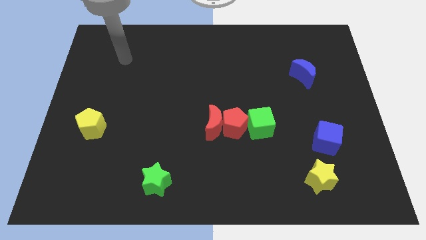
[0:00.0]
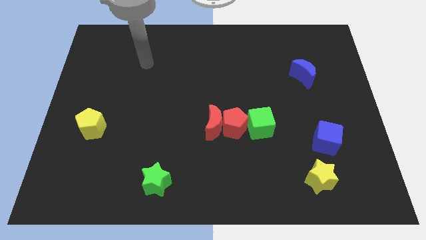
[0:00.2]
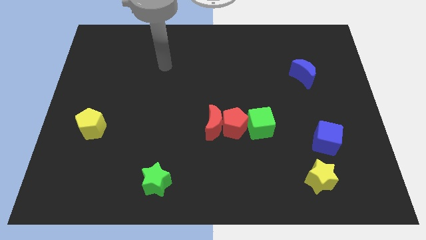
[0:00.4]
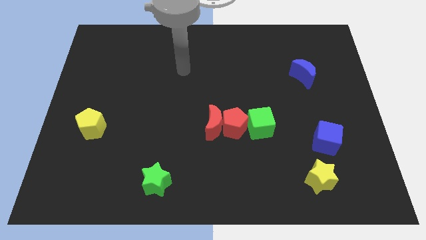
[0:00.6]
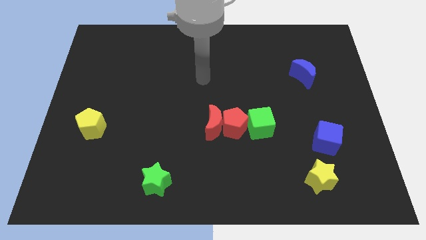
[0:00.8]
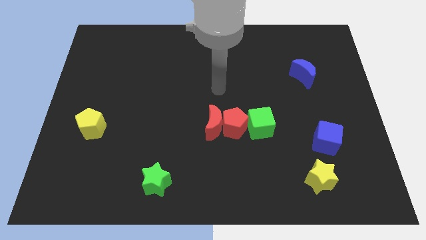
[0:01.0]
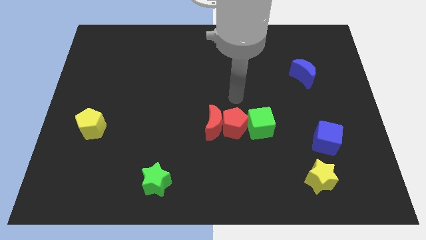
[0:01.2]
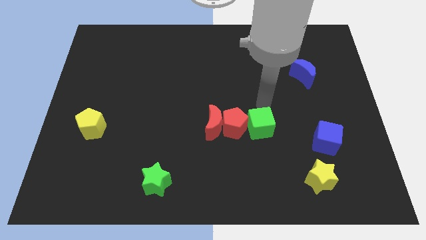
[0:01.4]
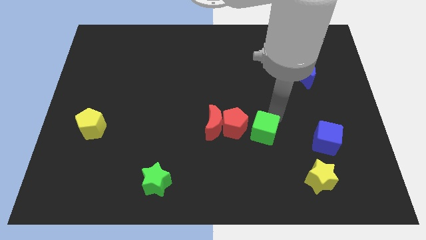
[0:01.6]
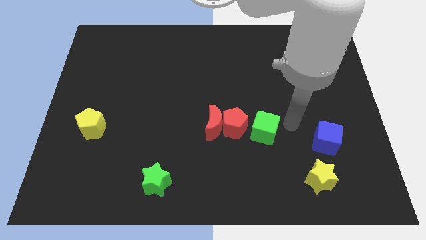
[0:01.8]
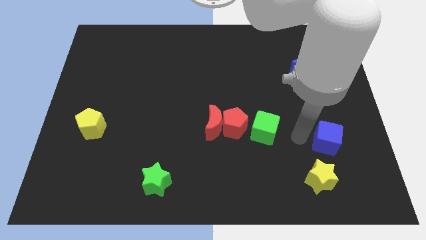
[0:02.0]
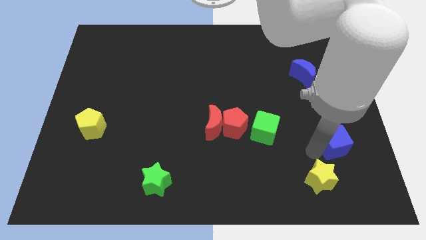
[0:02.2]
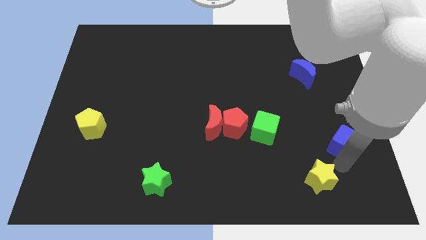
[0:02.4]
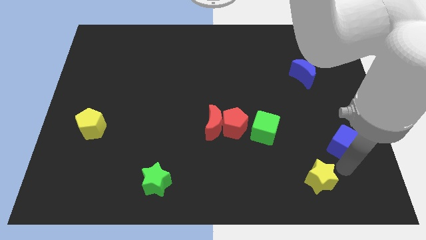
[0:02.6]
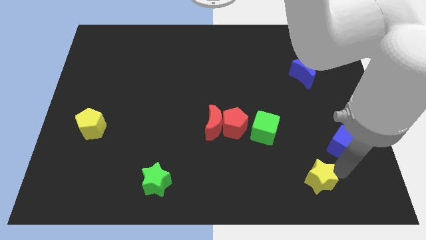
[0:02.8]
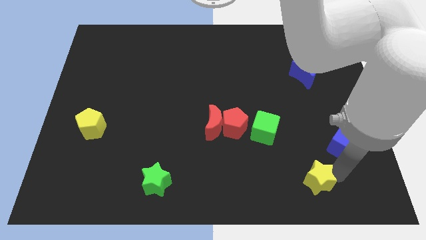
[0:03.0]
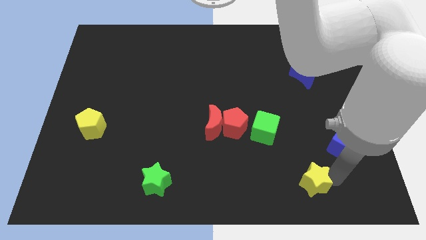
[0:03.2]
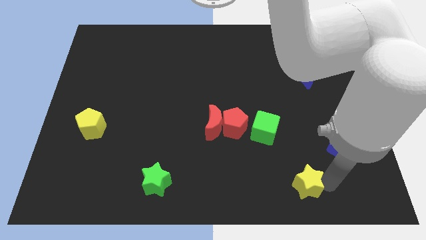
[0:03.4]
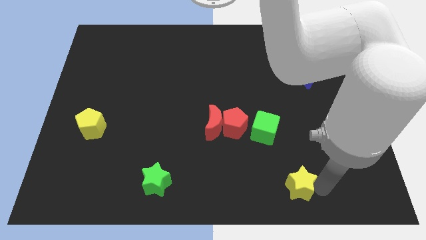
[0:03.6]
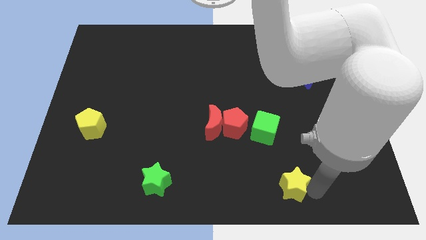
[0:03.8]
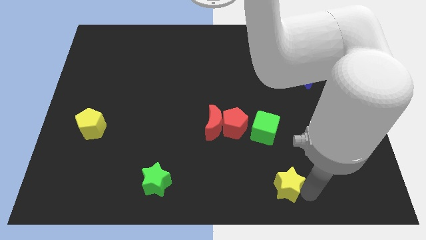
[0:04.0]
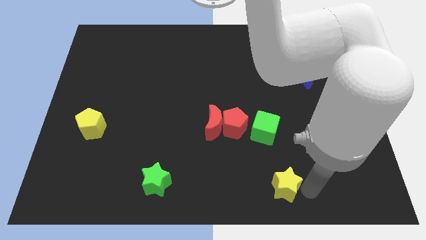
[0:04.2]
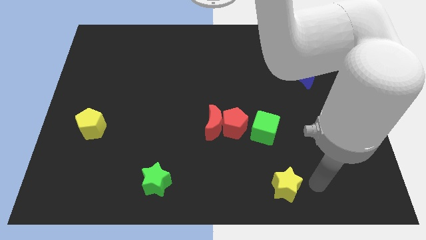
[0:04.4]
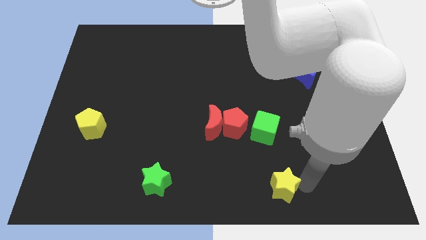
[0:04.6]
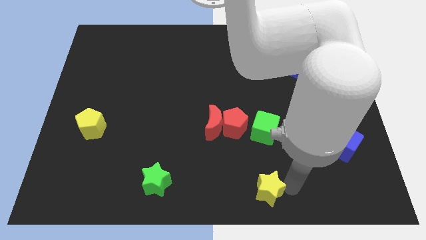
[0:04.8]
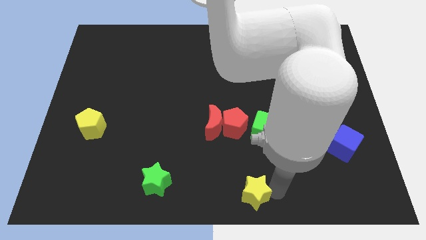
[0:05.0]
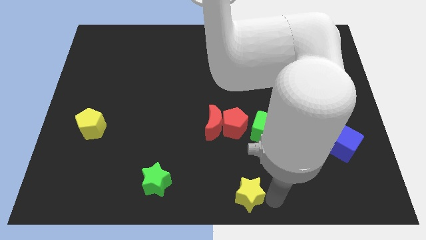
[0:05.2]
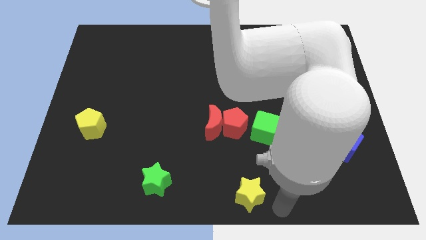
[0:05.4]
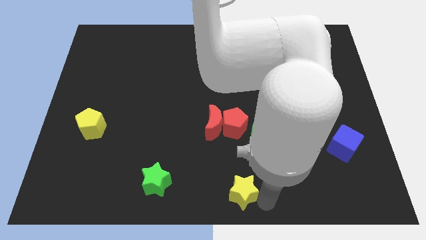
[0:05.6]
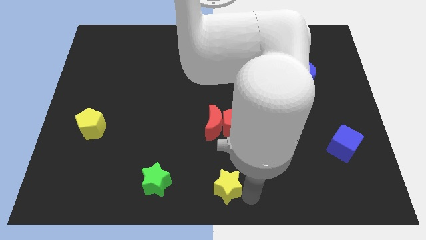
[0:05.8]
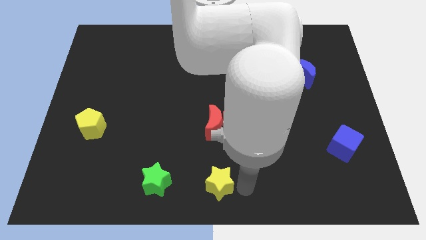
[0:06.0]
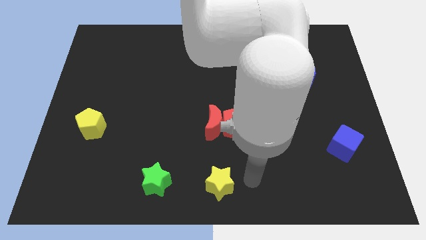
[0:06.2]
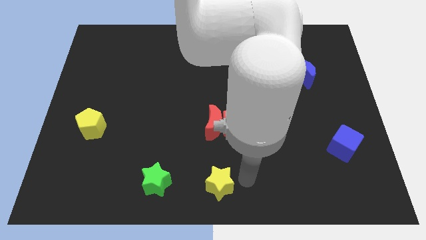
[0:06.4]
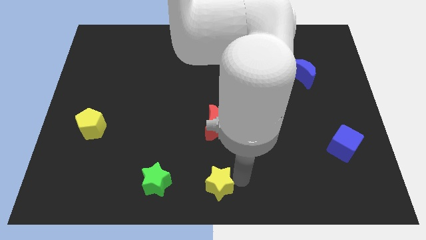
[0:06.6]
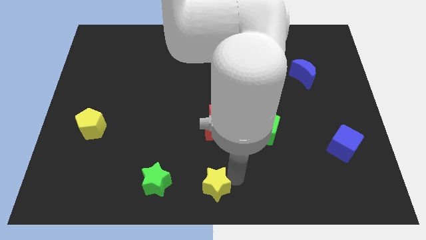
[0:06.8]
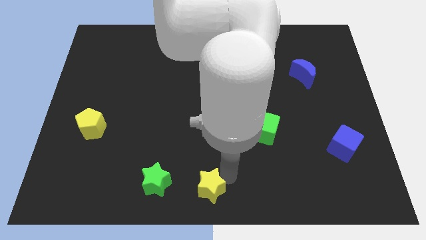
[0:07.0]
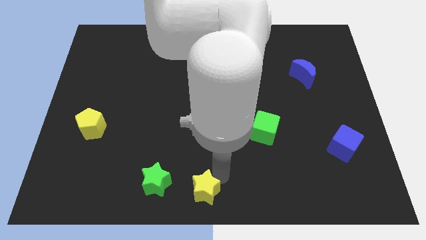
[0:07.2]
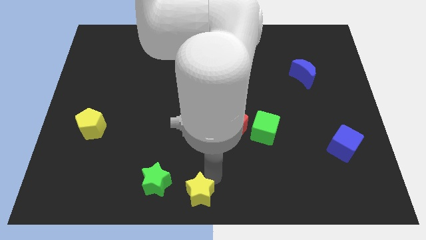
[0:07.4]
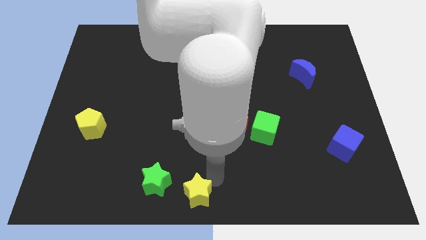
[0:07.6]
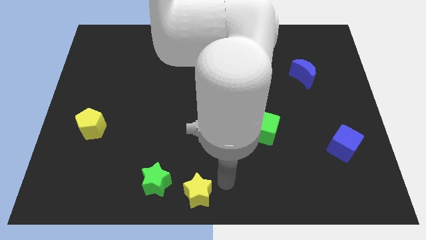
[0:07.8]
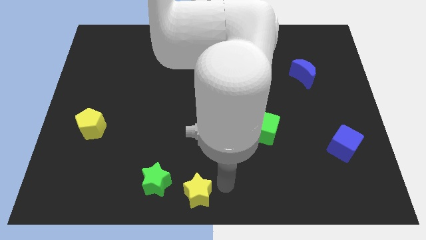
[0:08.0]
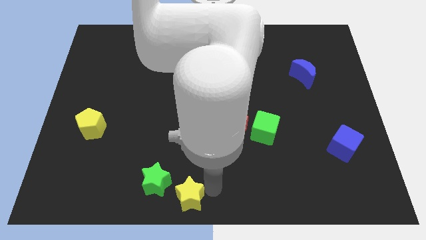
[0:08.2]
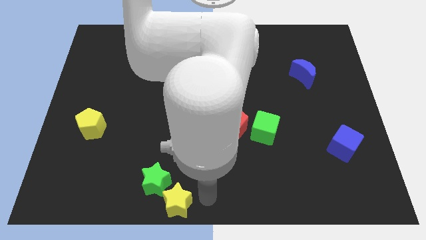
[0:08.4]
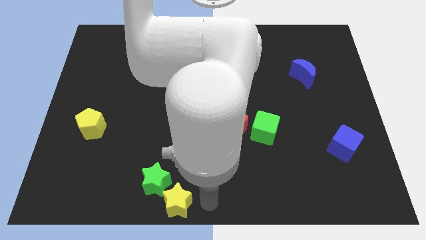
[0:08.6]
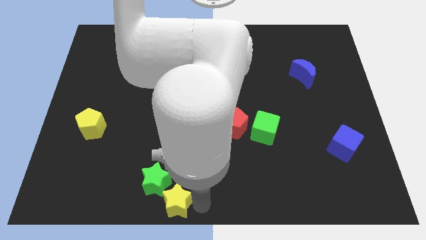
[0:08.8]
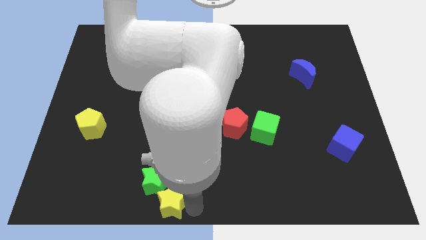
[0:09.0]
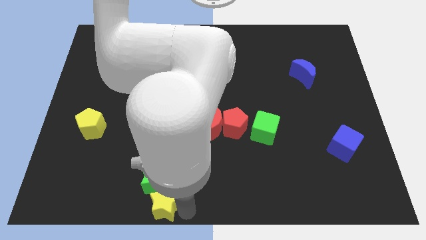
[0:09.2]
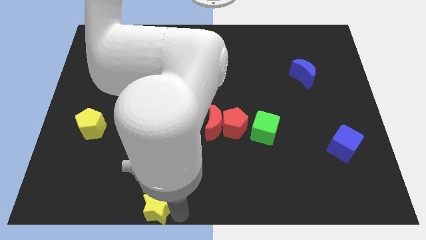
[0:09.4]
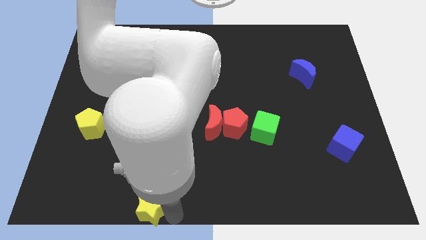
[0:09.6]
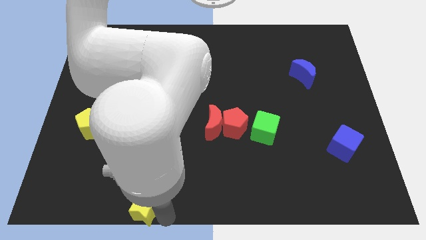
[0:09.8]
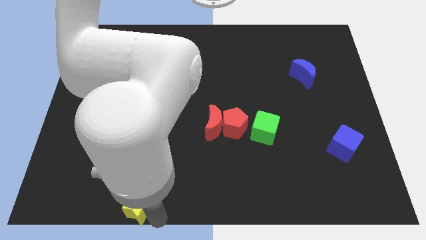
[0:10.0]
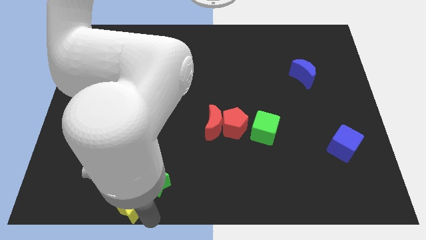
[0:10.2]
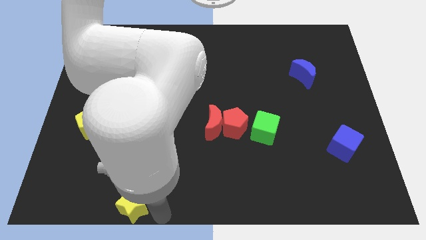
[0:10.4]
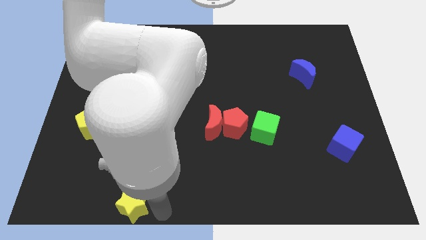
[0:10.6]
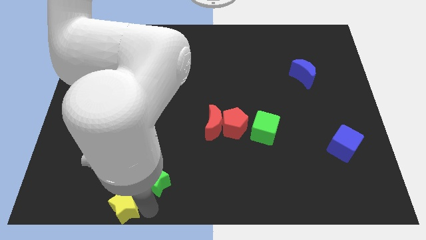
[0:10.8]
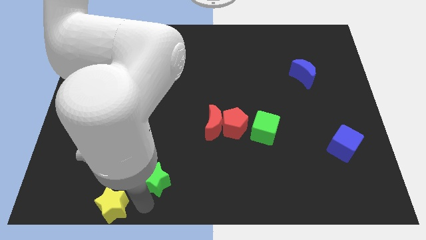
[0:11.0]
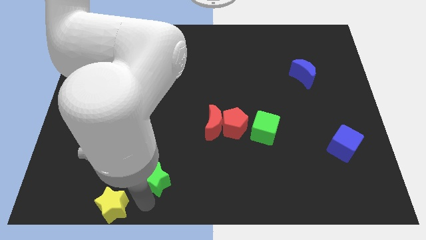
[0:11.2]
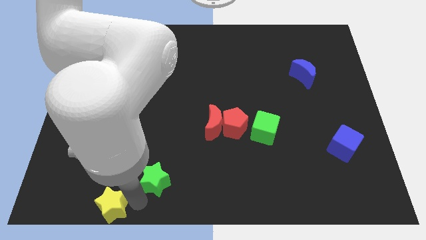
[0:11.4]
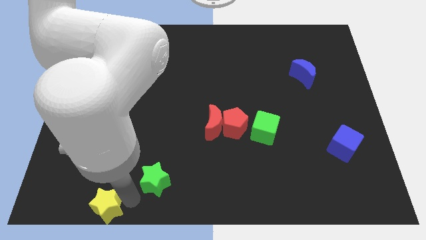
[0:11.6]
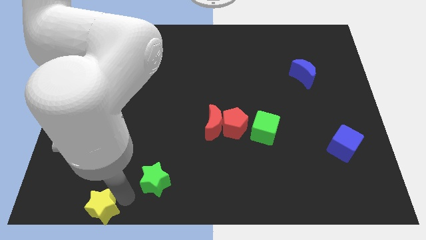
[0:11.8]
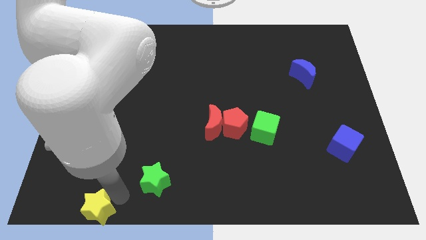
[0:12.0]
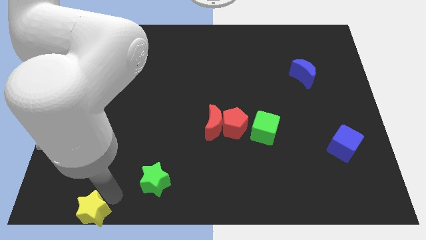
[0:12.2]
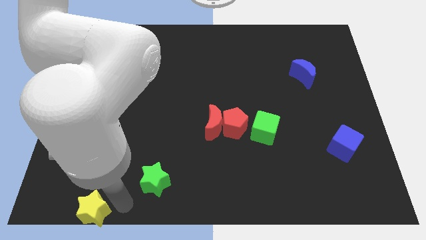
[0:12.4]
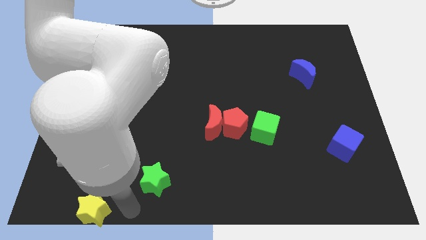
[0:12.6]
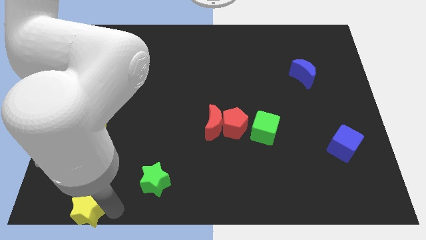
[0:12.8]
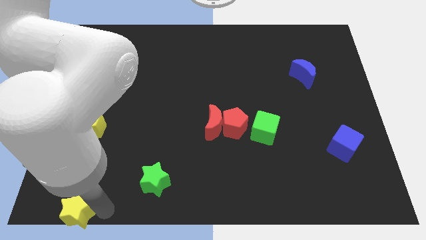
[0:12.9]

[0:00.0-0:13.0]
push the yellow star to the bottom left

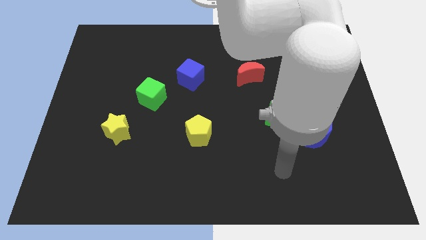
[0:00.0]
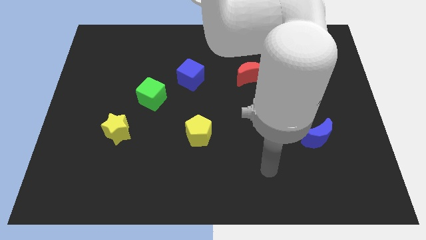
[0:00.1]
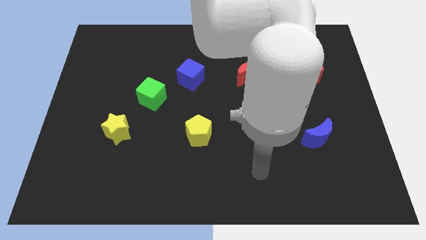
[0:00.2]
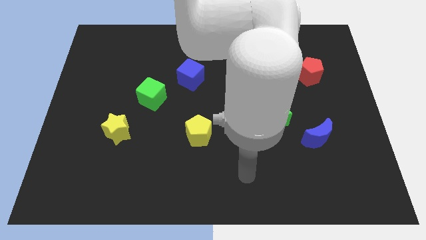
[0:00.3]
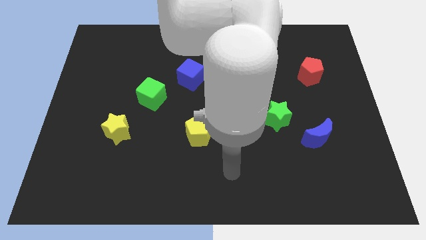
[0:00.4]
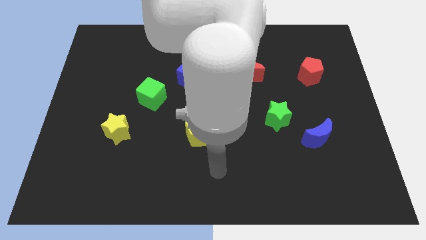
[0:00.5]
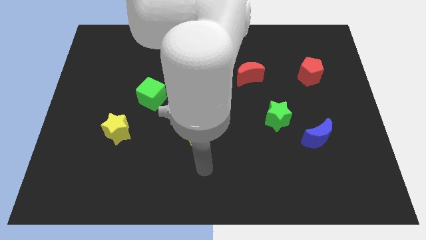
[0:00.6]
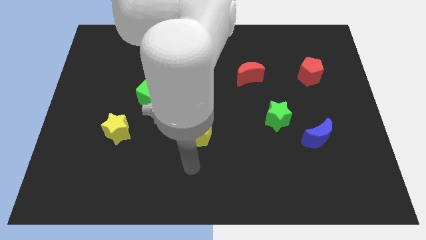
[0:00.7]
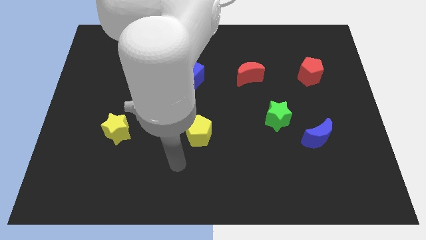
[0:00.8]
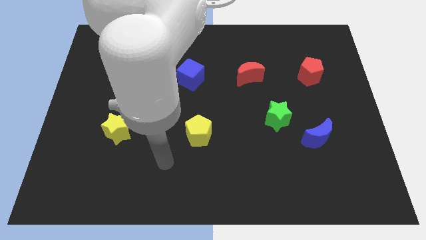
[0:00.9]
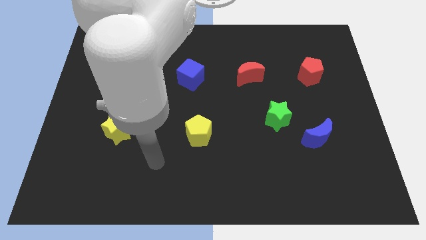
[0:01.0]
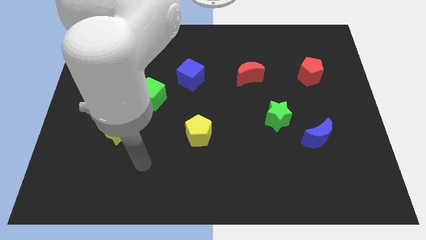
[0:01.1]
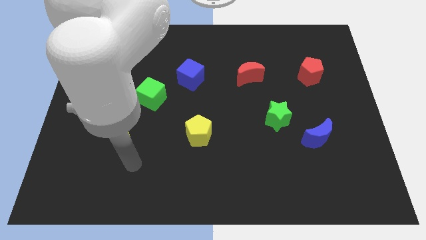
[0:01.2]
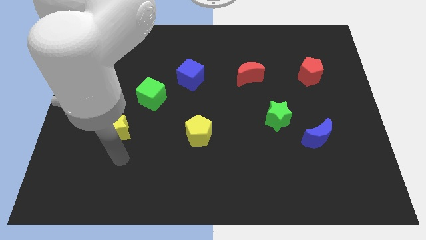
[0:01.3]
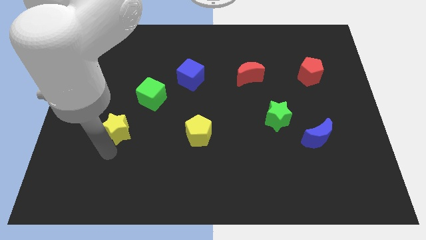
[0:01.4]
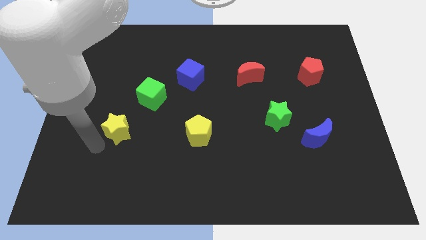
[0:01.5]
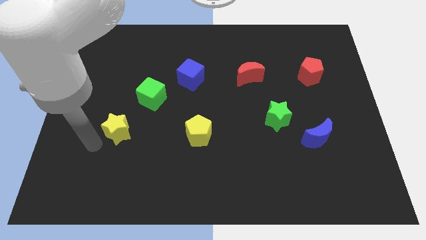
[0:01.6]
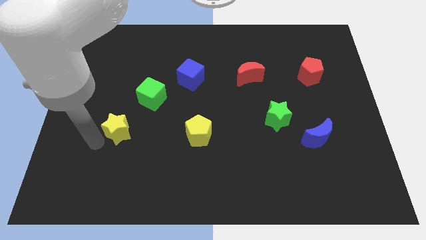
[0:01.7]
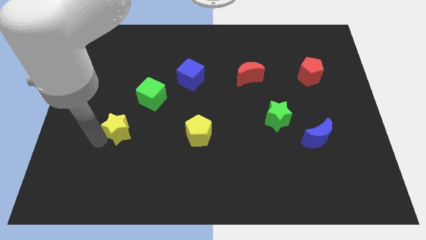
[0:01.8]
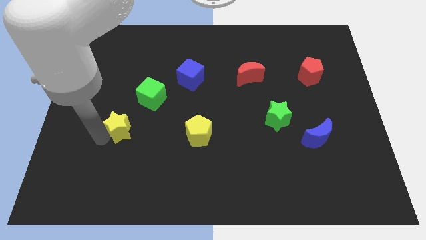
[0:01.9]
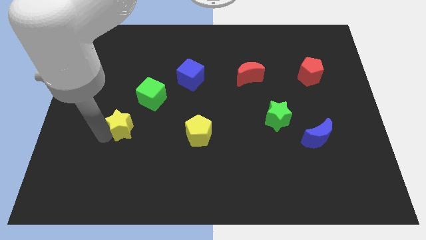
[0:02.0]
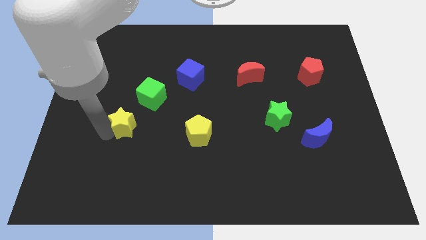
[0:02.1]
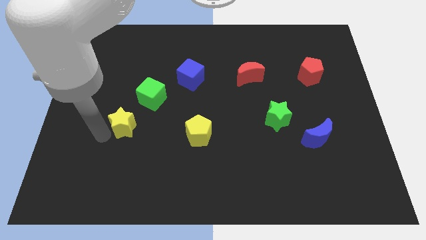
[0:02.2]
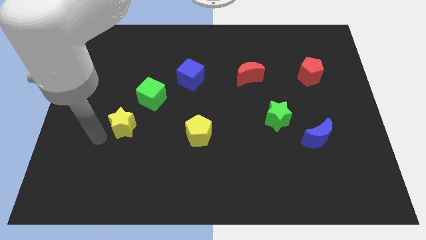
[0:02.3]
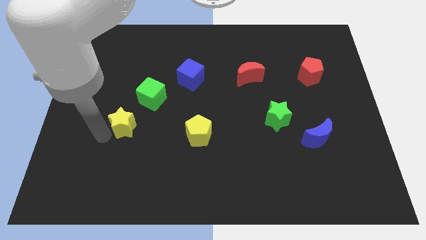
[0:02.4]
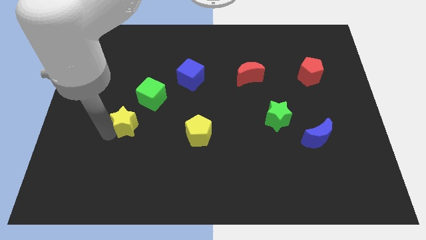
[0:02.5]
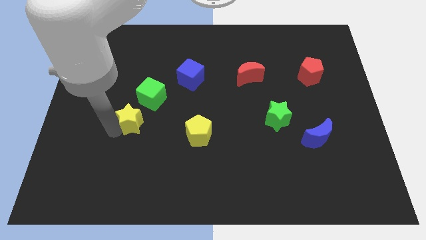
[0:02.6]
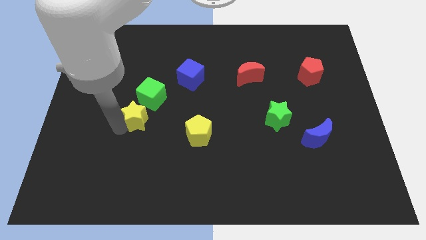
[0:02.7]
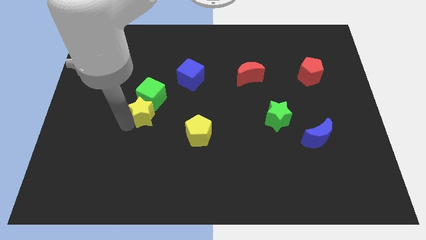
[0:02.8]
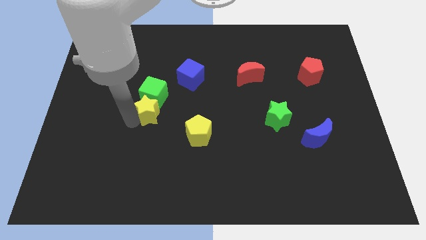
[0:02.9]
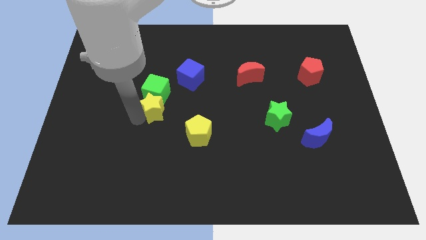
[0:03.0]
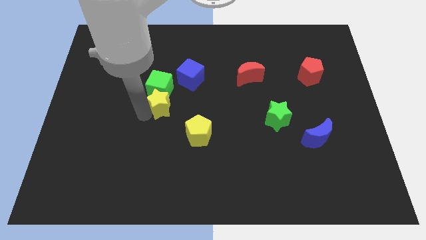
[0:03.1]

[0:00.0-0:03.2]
move the yellow star to the center of the board
